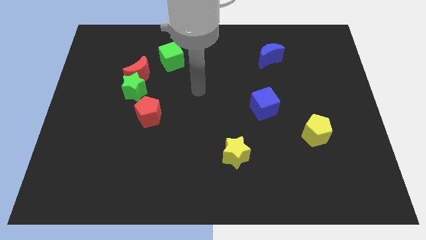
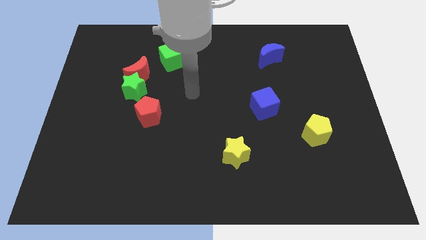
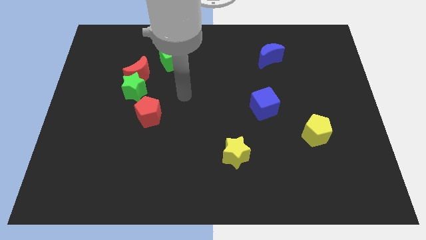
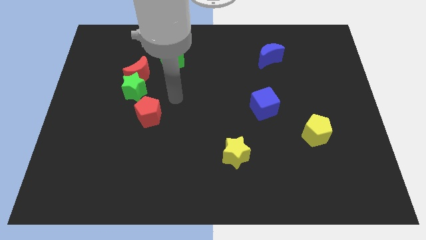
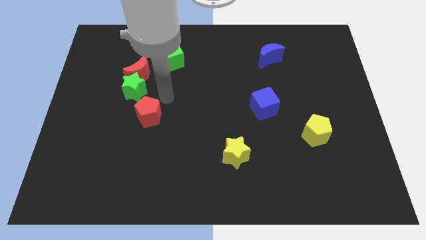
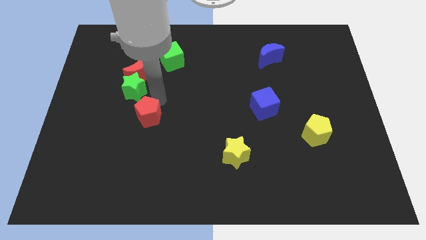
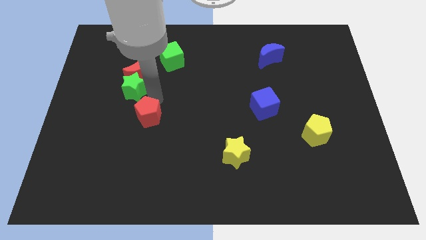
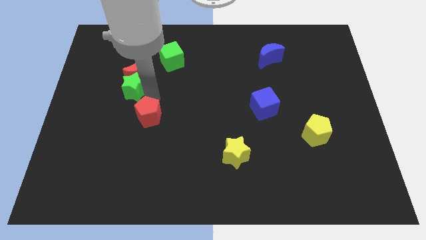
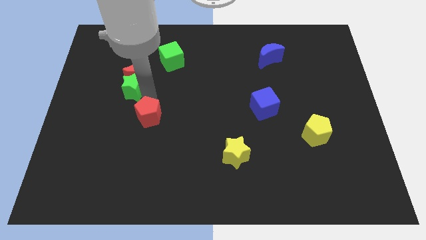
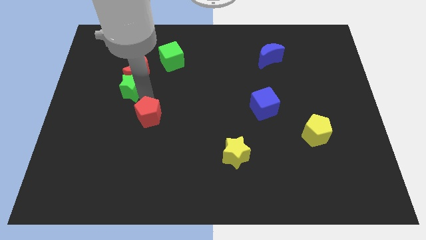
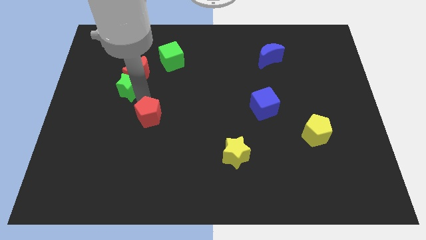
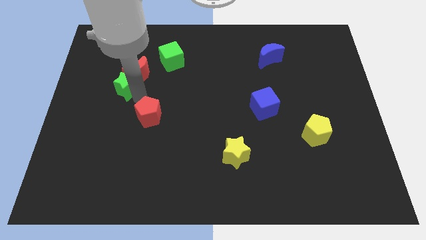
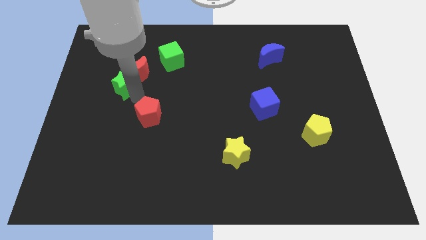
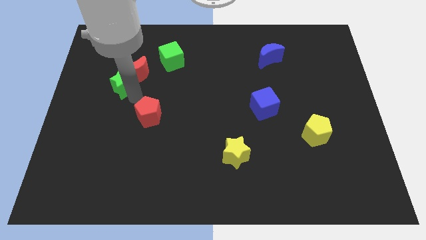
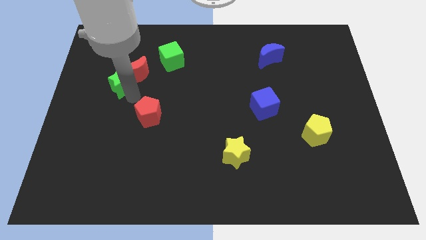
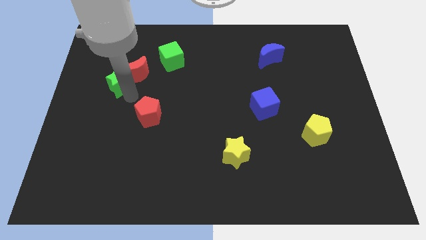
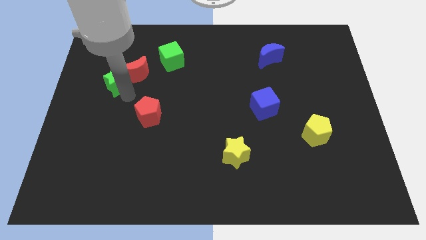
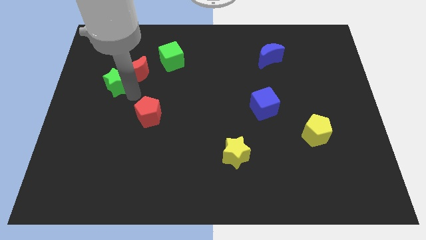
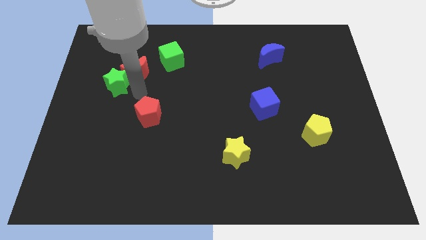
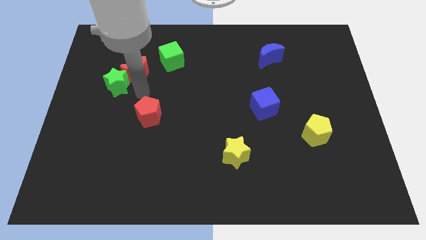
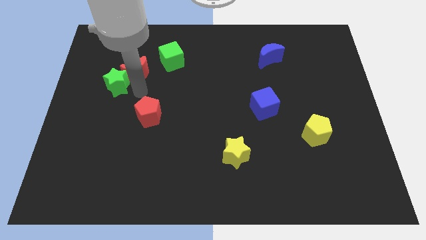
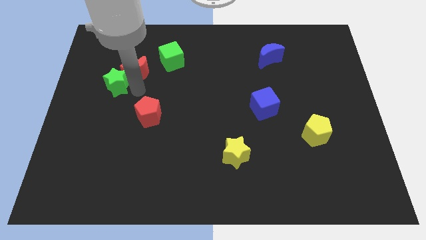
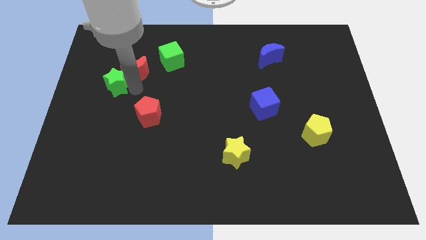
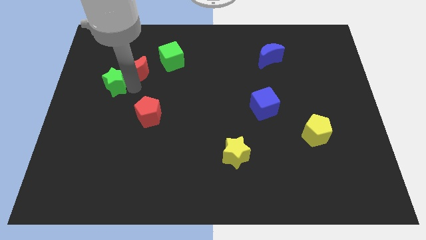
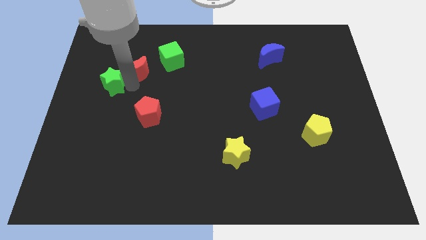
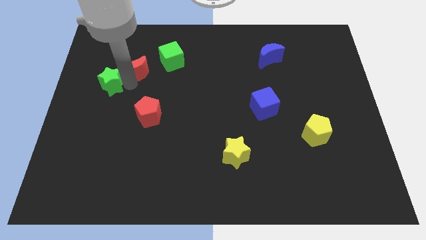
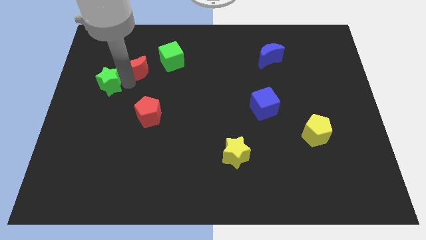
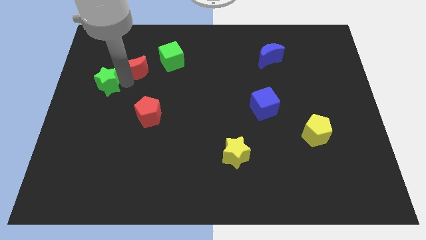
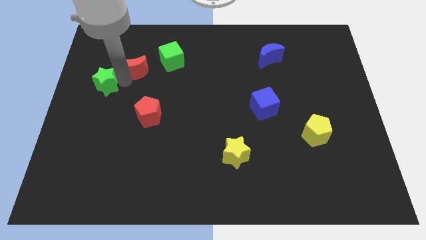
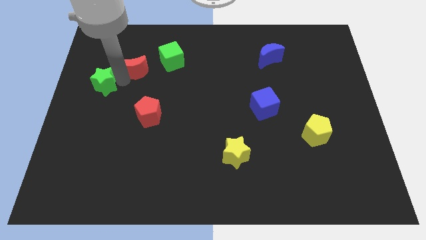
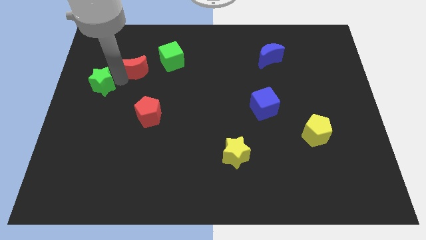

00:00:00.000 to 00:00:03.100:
pull the green star apart from the red moon and red pentagon

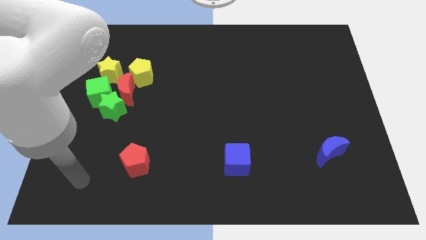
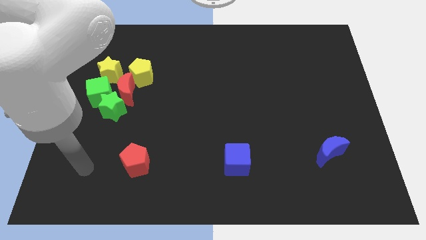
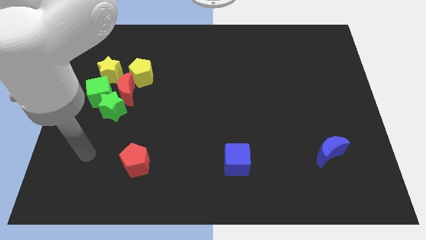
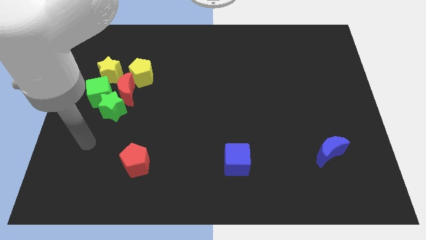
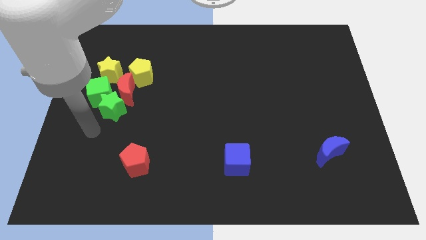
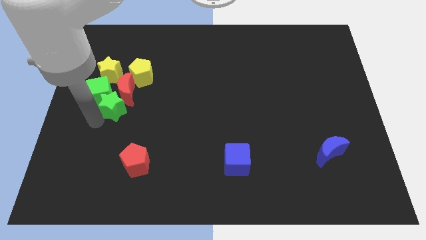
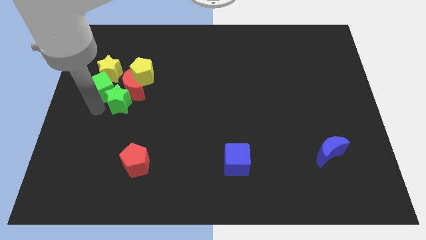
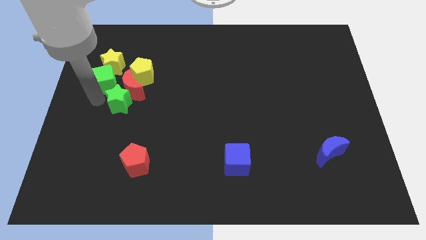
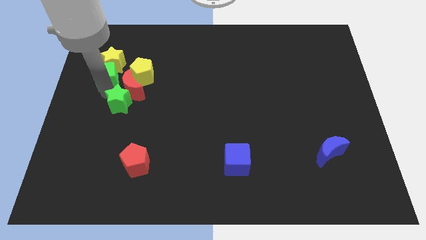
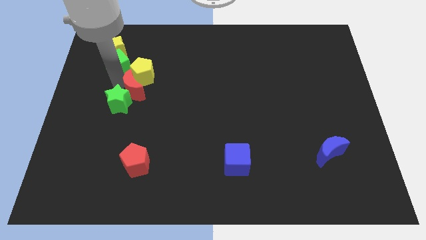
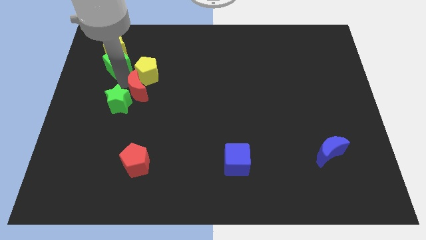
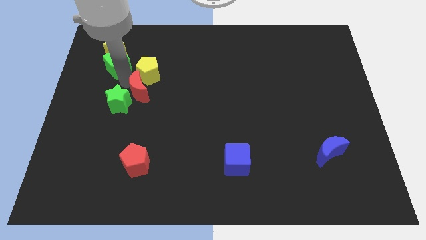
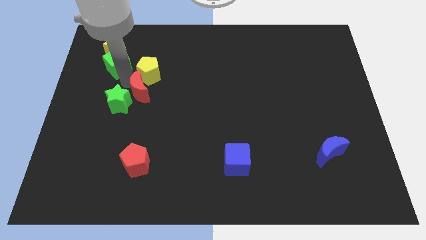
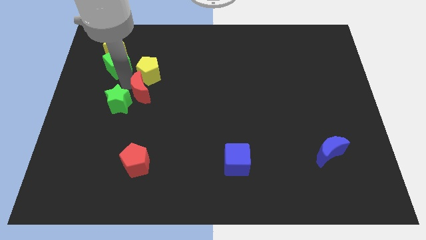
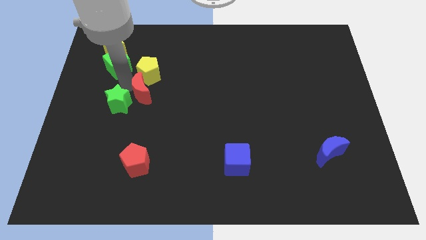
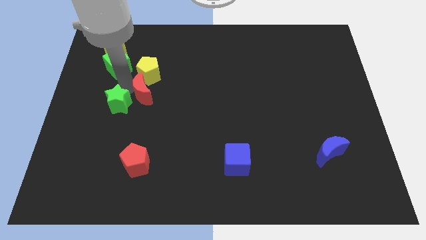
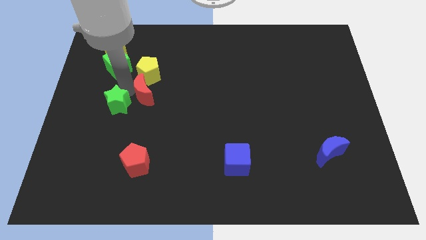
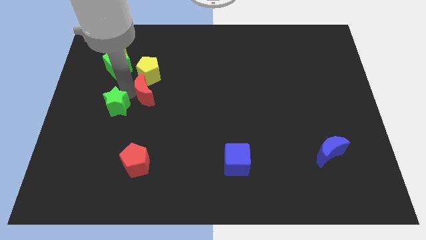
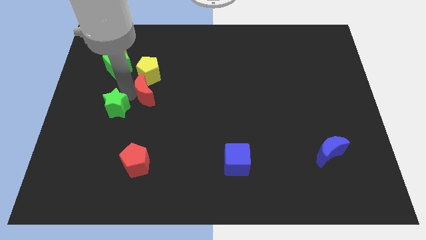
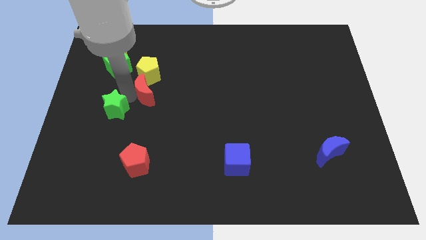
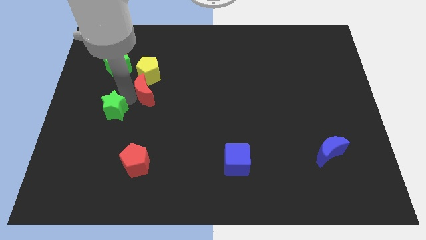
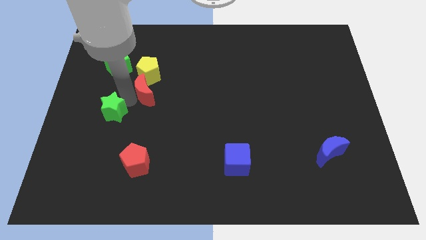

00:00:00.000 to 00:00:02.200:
separate the green star from the red moon and green cube

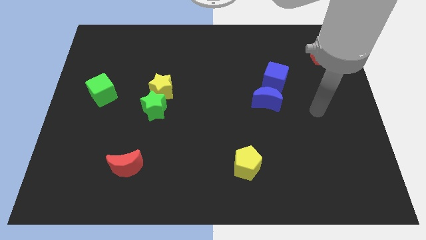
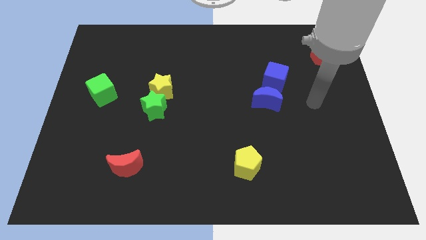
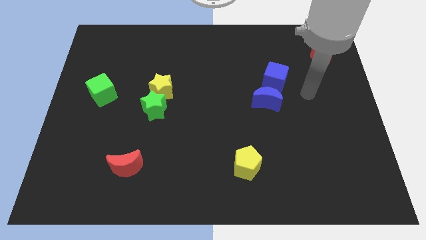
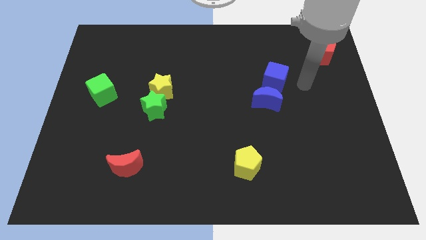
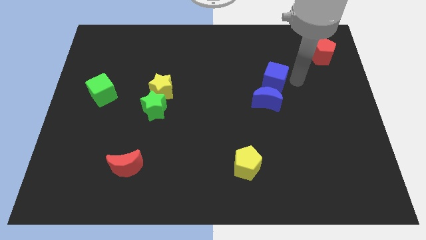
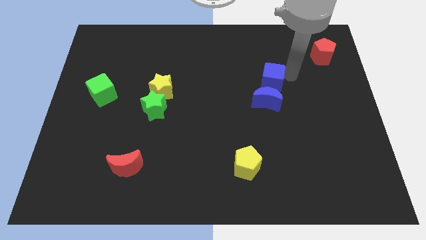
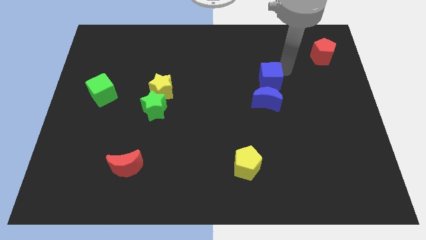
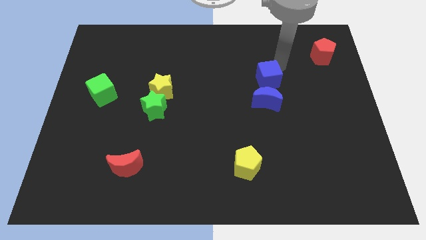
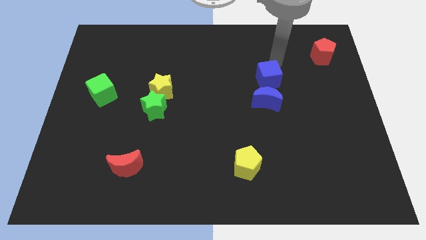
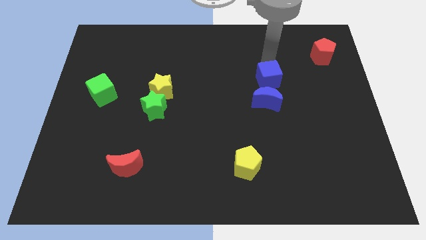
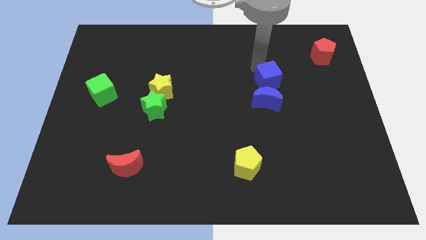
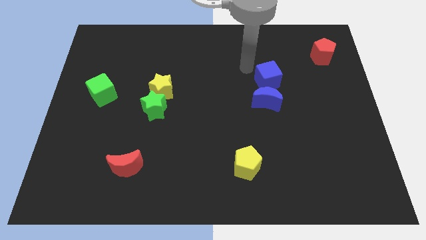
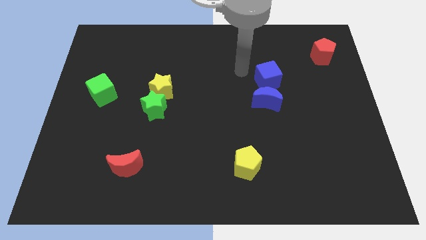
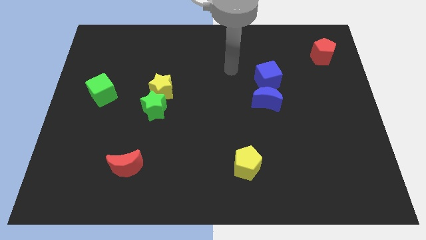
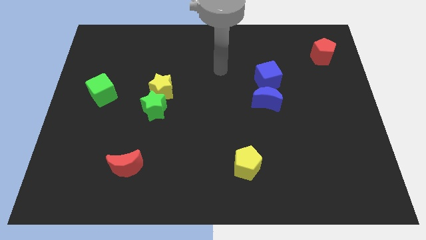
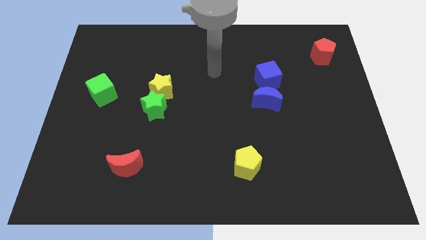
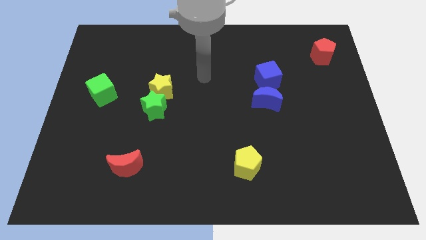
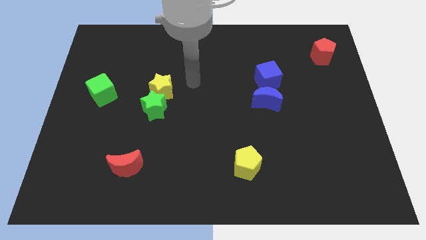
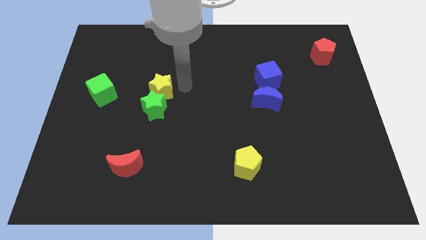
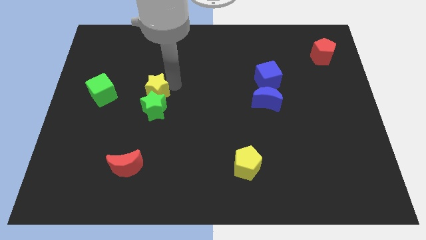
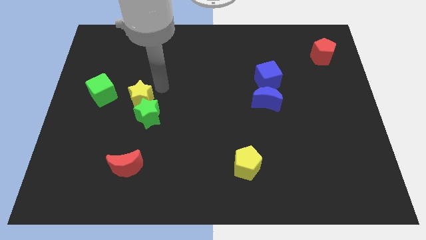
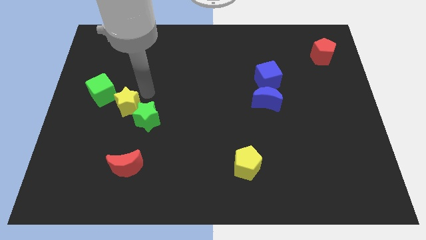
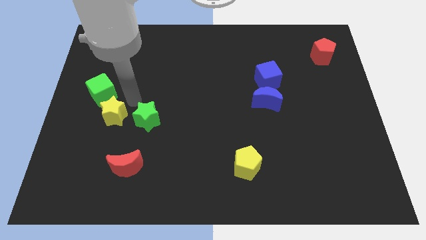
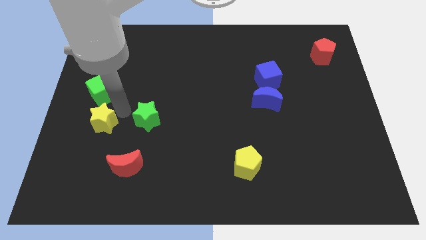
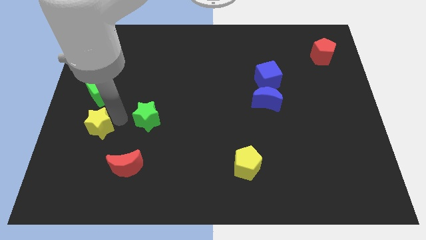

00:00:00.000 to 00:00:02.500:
pull the green star apart from the yellow star

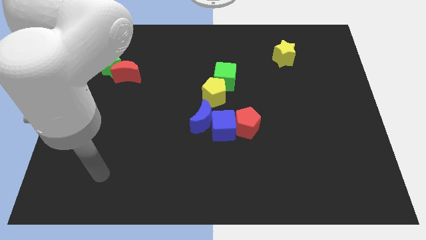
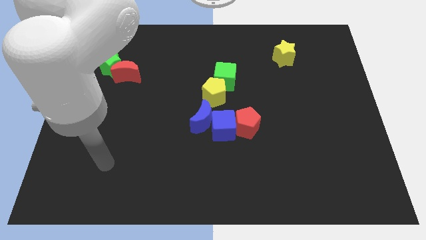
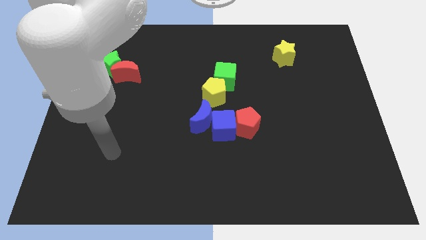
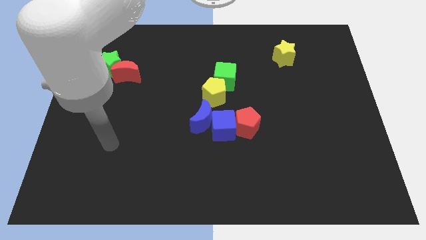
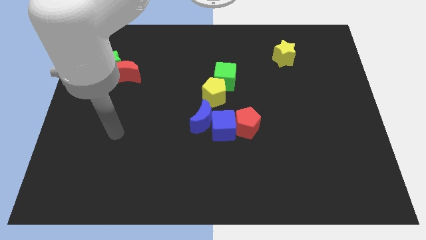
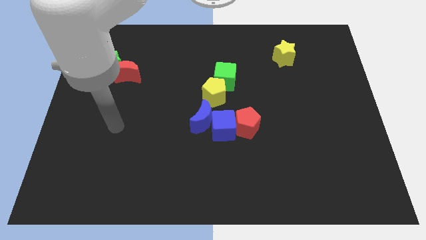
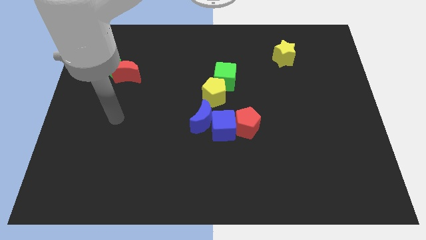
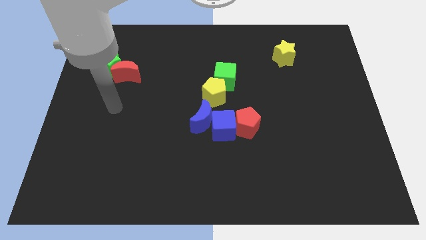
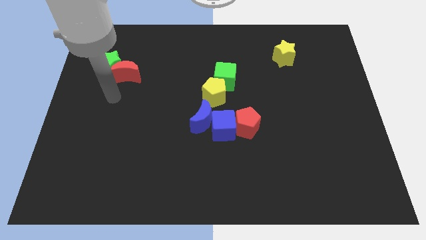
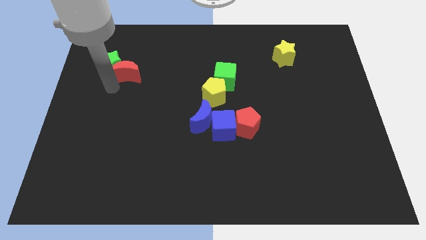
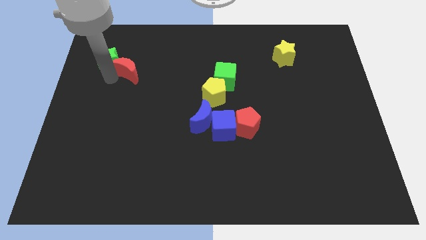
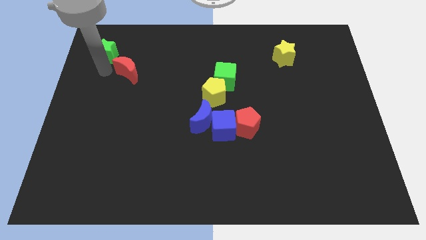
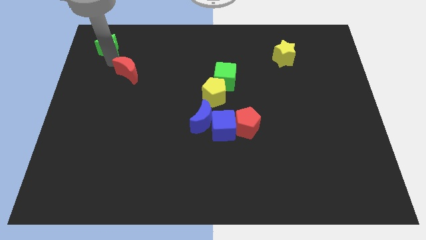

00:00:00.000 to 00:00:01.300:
pull the red moon apart from the green star

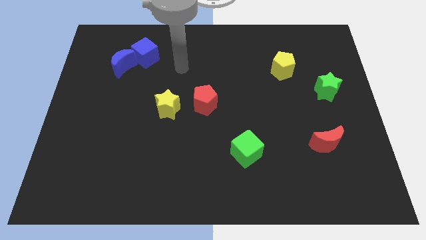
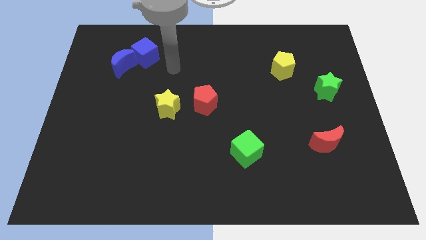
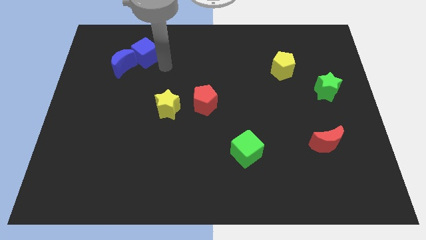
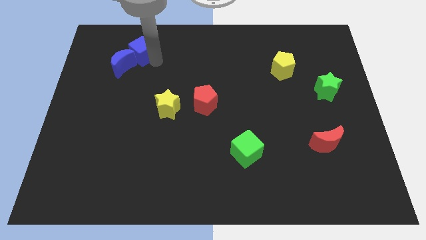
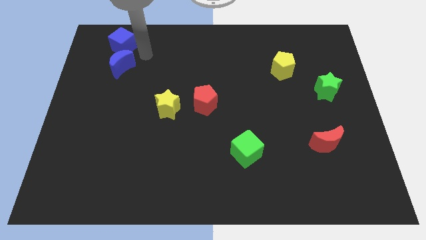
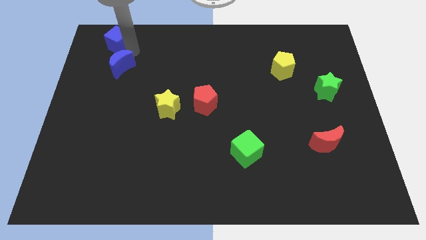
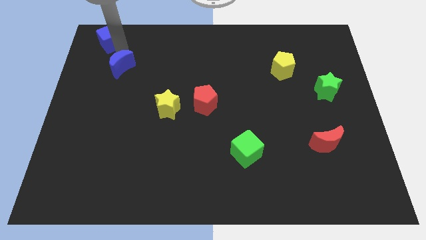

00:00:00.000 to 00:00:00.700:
pull the blue moon apart from the blue cube
